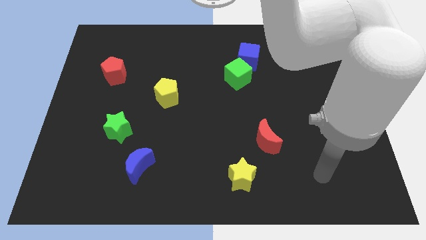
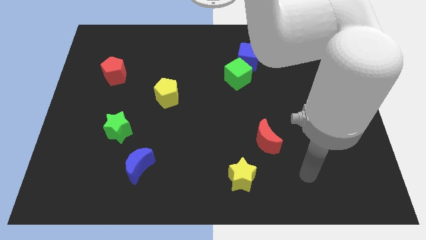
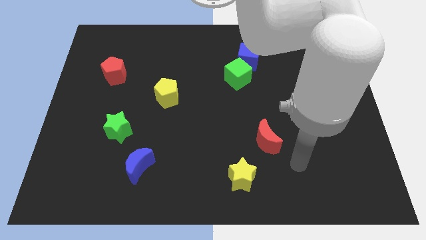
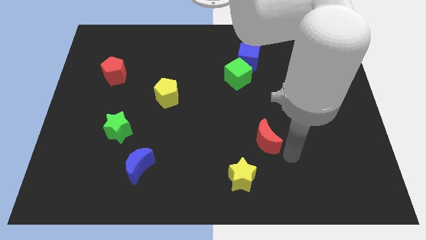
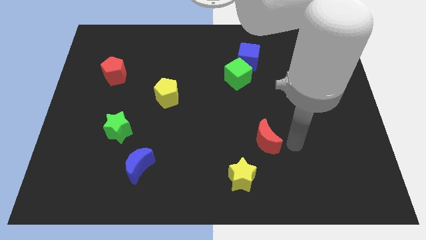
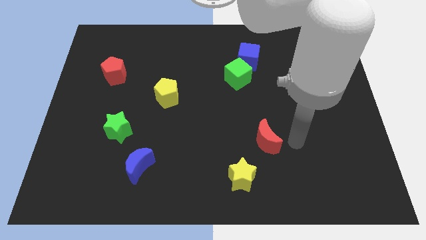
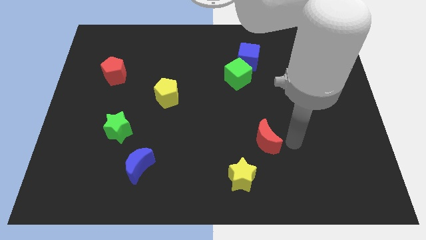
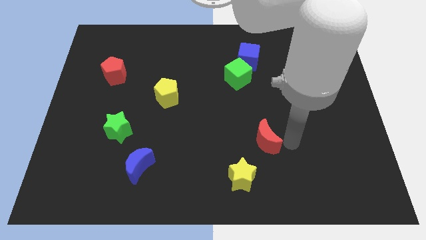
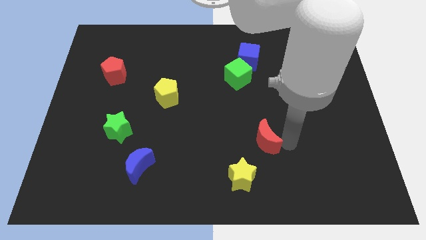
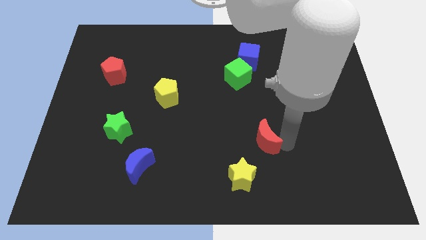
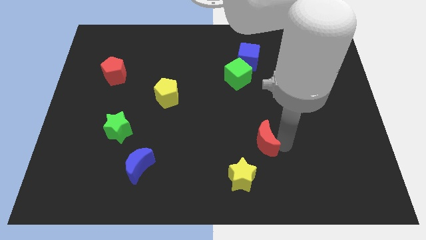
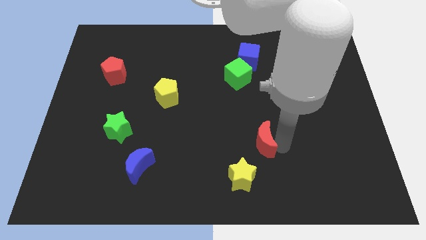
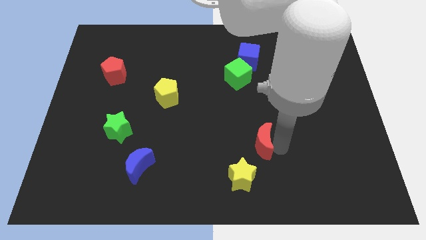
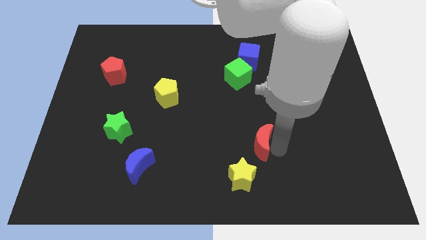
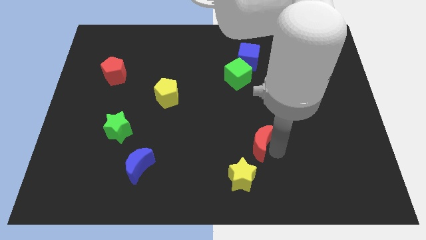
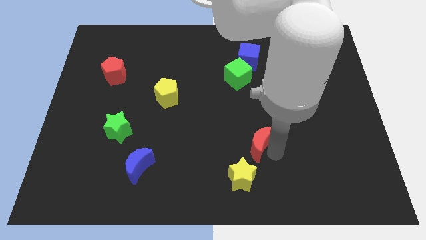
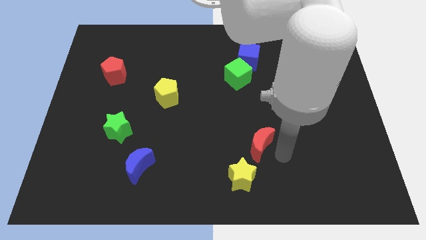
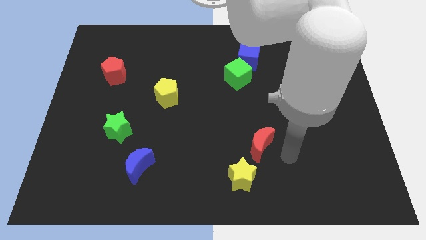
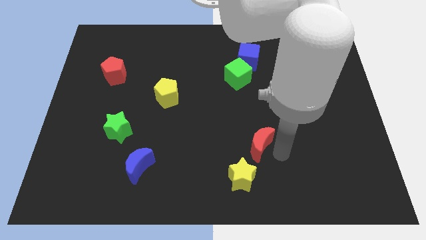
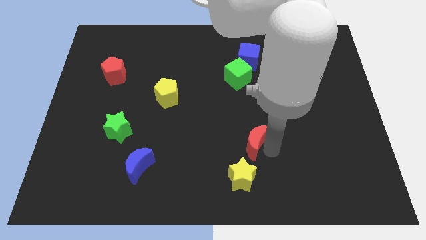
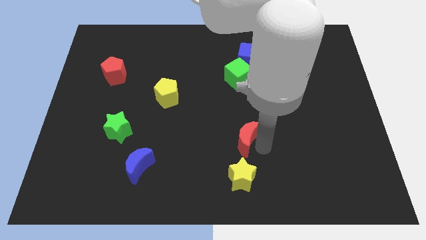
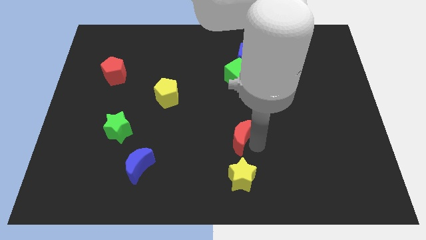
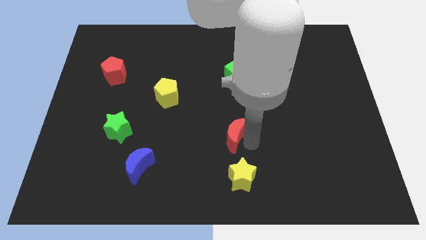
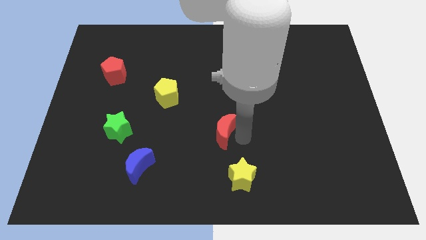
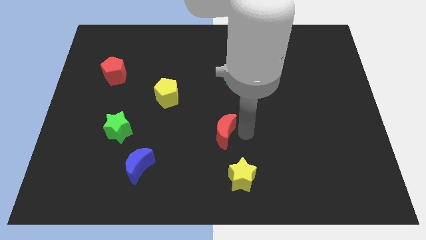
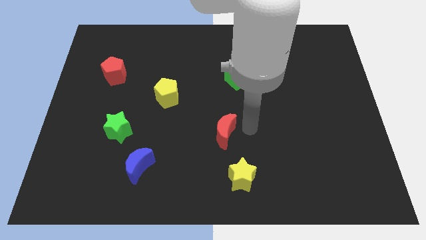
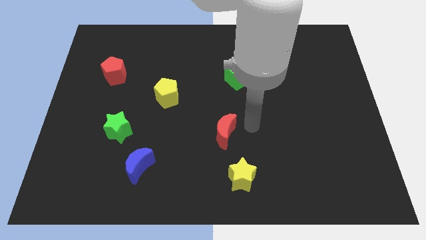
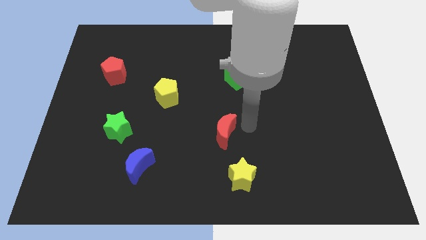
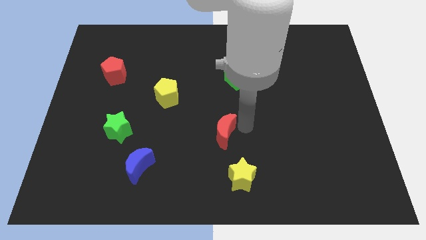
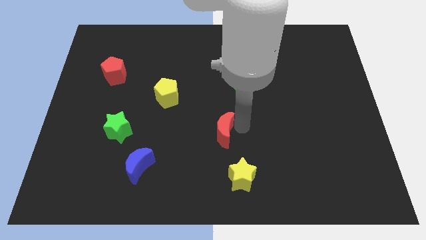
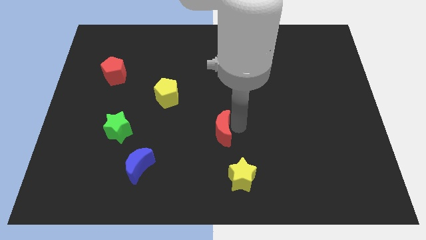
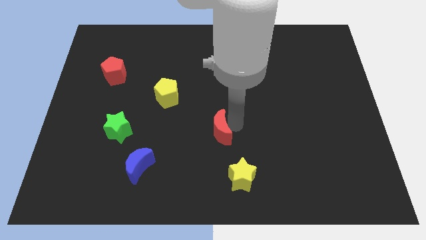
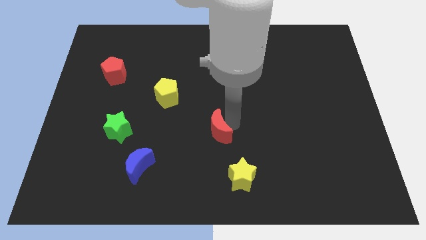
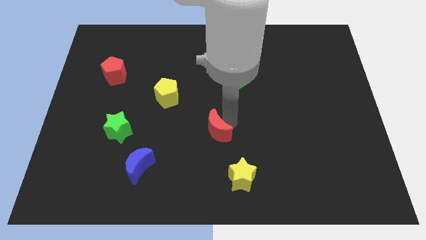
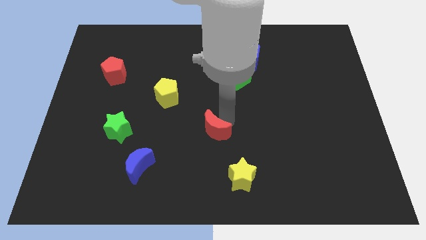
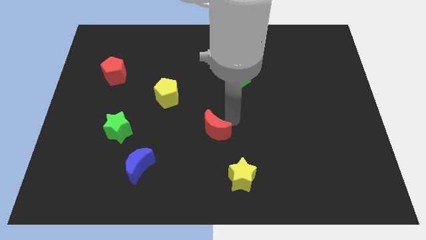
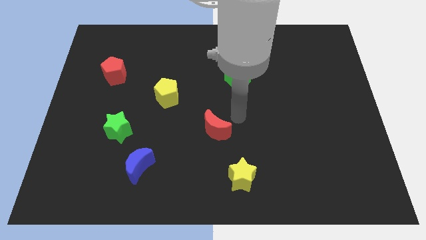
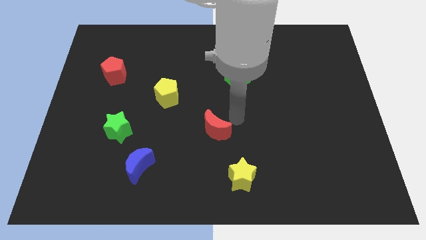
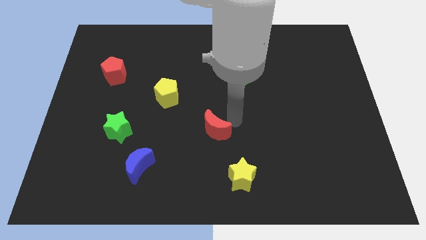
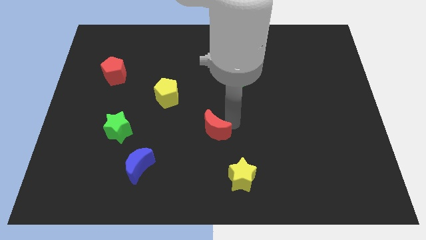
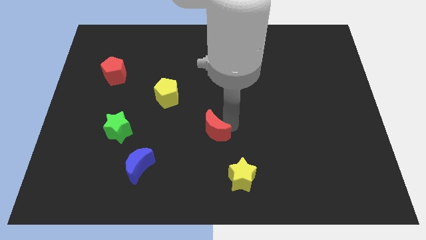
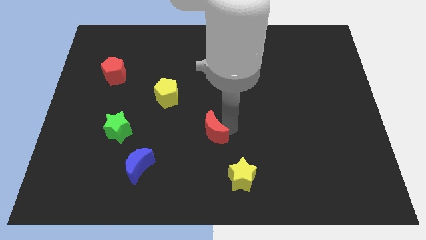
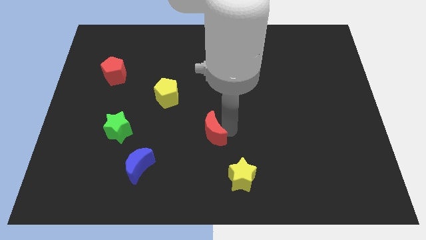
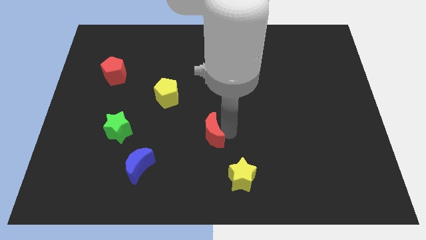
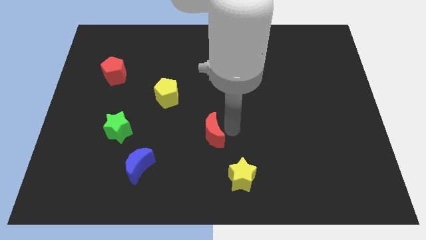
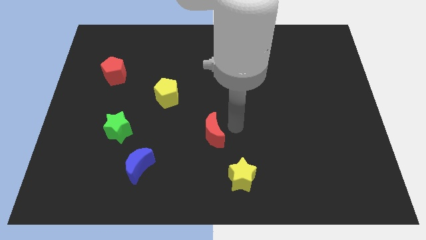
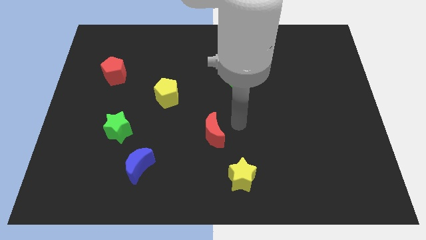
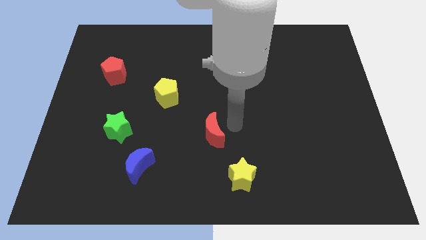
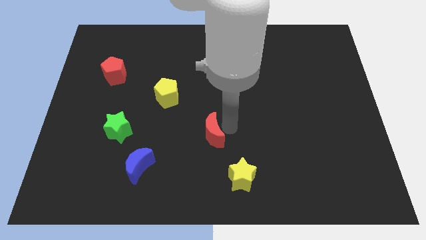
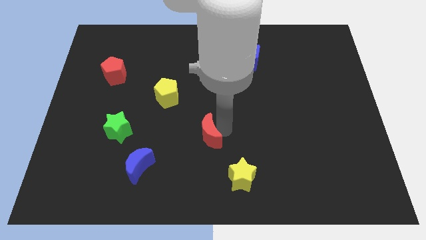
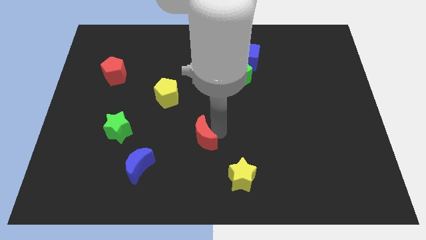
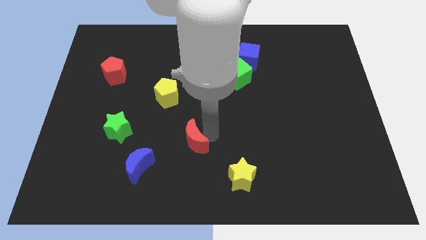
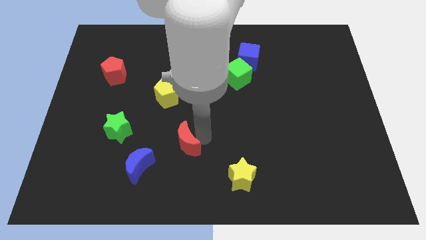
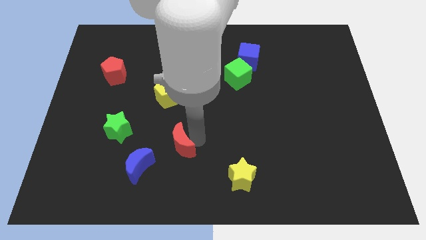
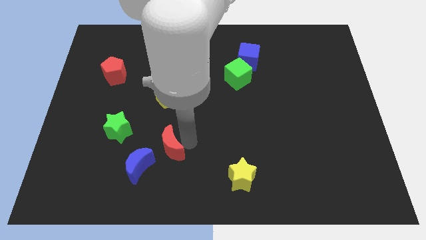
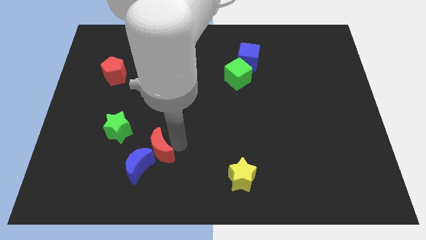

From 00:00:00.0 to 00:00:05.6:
move the red moon close to the blue moon

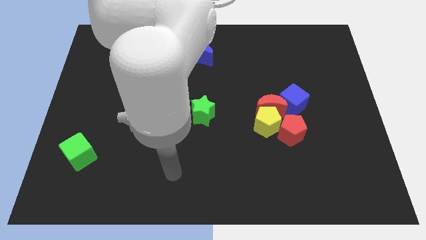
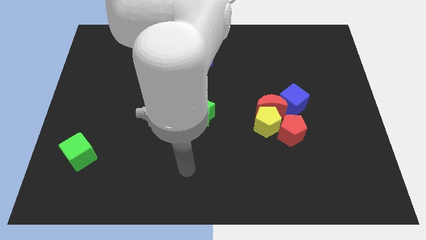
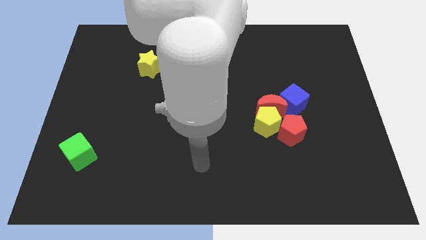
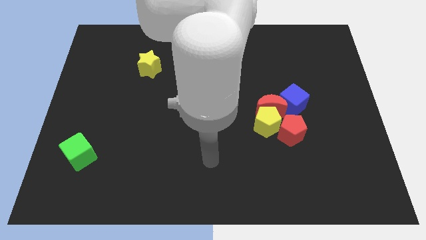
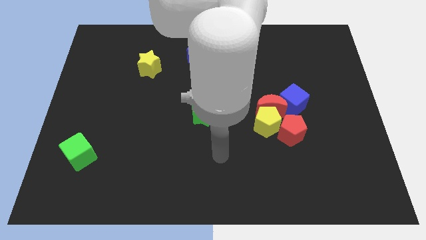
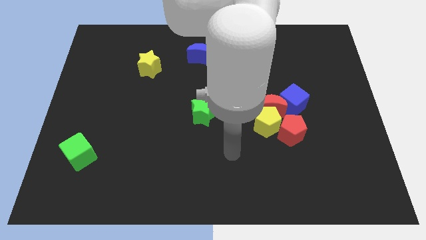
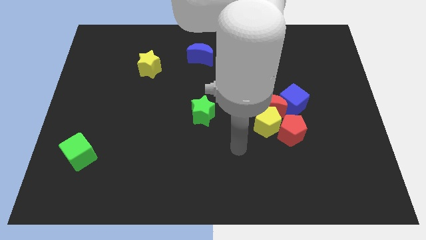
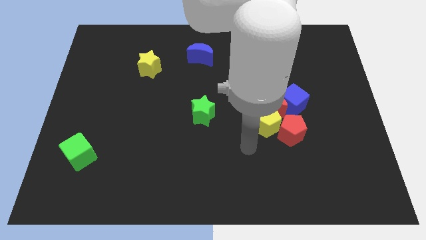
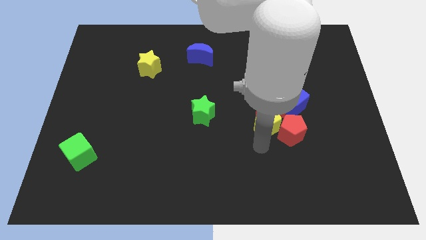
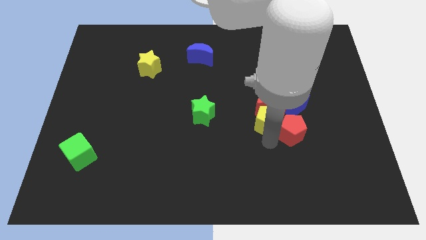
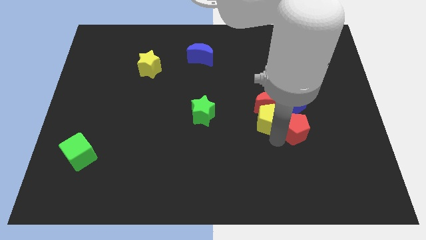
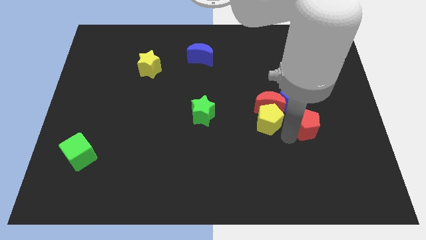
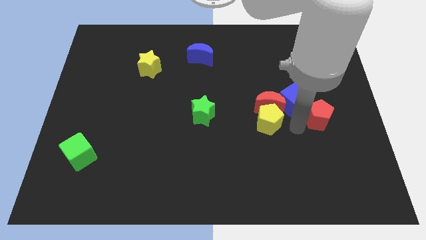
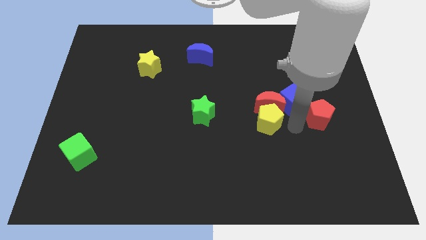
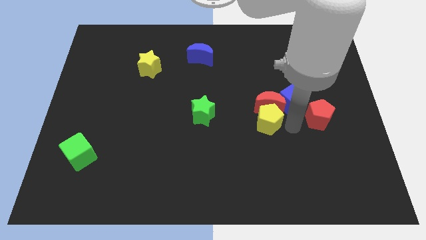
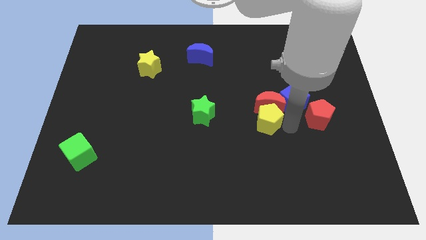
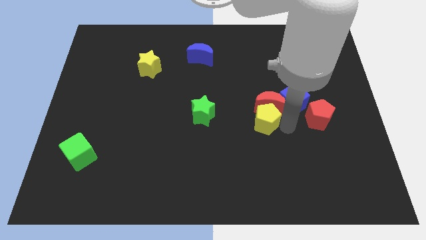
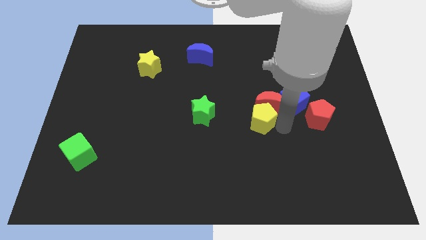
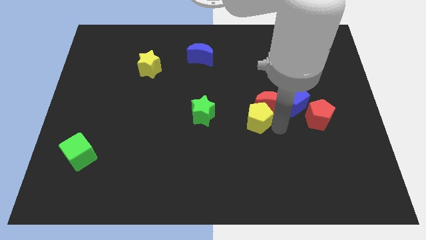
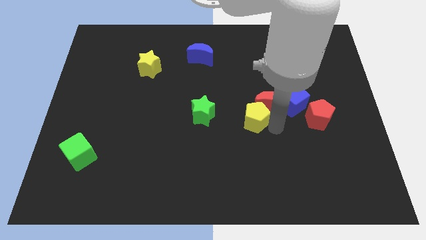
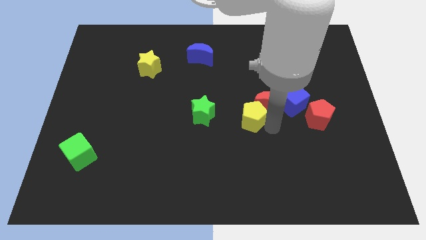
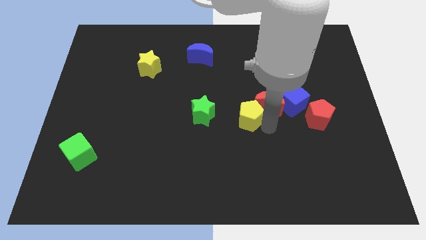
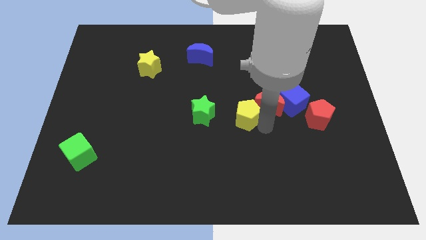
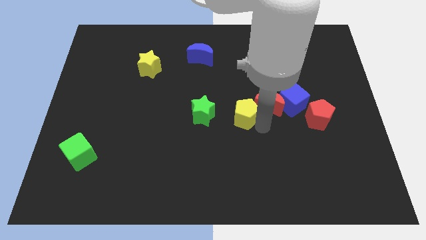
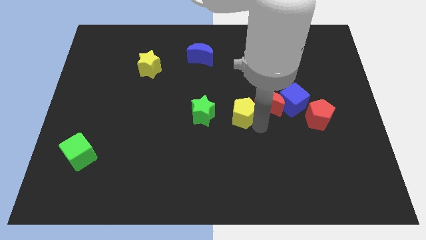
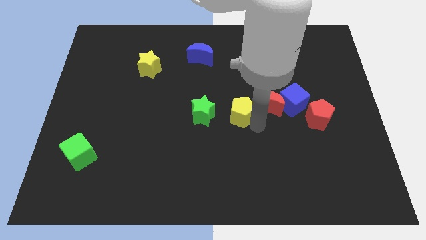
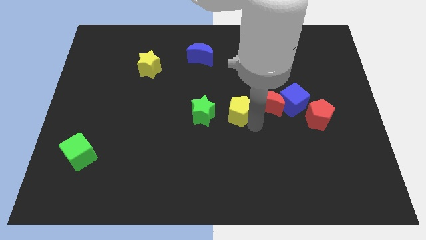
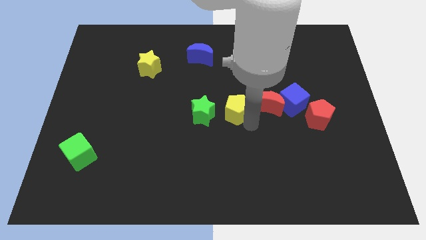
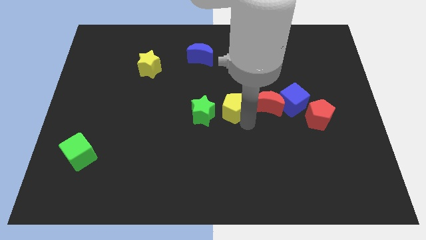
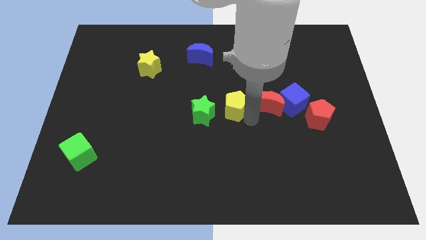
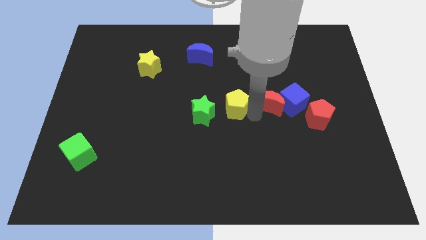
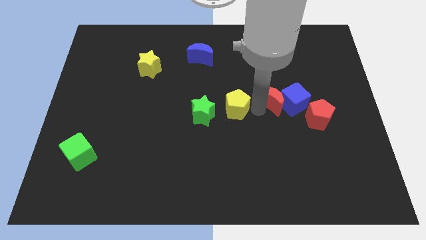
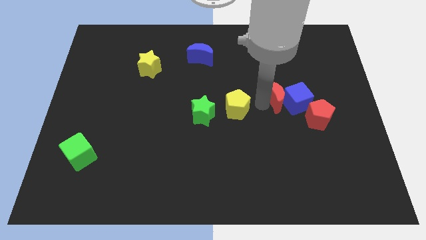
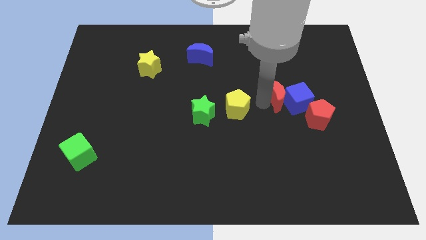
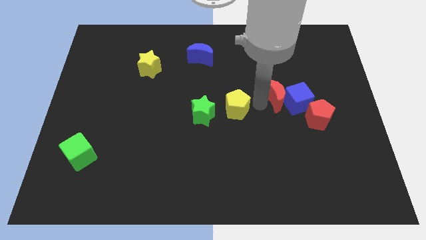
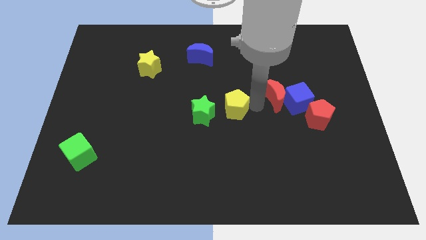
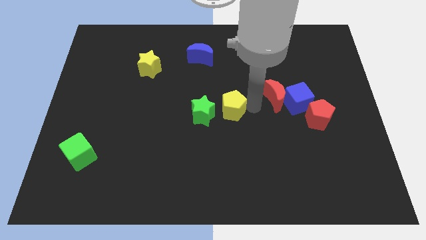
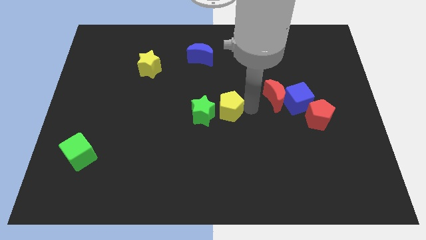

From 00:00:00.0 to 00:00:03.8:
slide the yellow pentagon towards the green star
